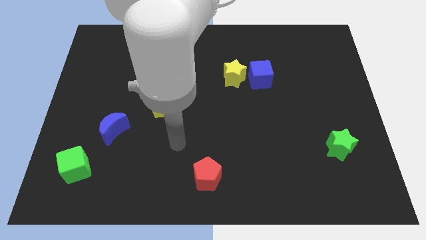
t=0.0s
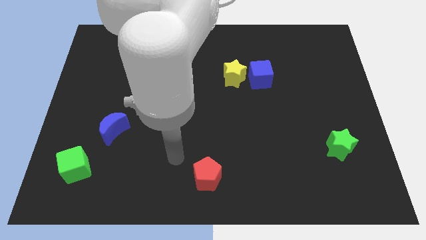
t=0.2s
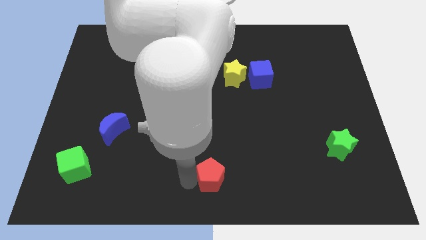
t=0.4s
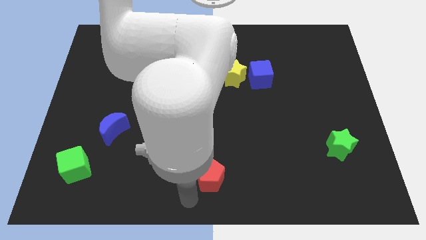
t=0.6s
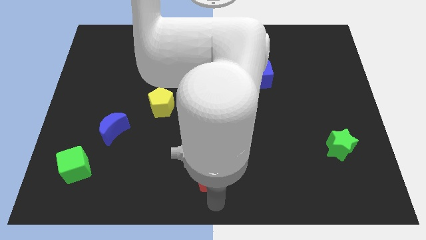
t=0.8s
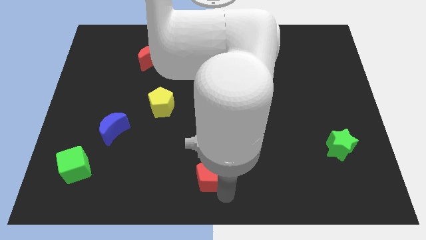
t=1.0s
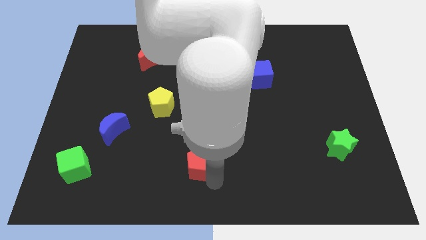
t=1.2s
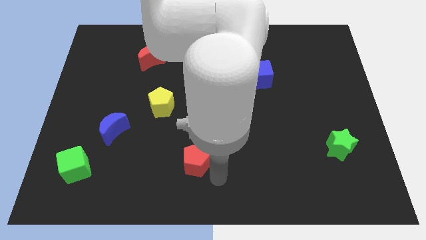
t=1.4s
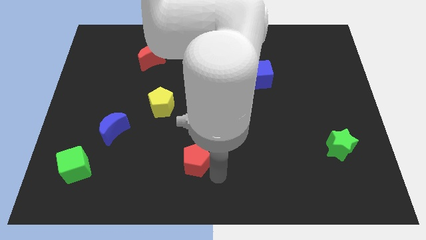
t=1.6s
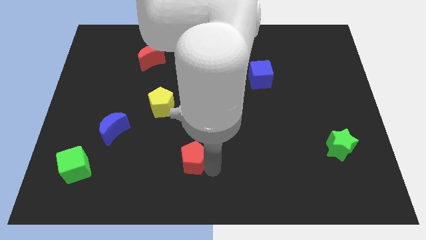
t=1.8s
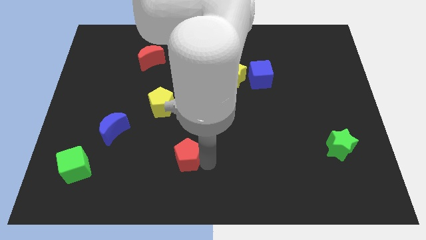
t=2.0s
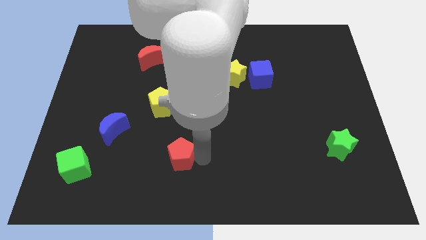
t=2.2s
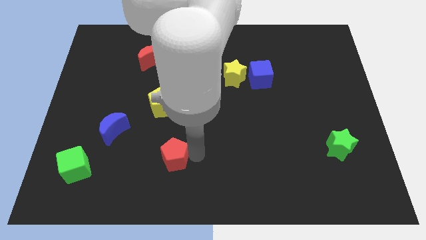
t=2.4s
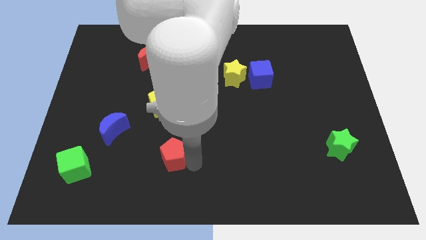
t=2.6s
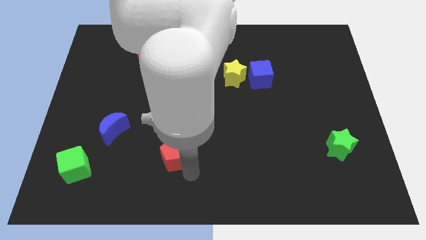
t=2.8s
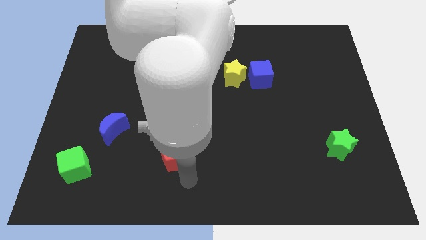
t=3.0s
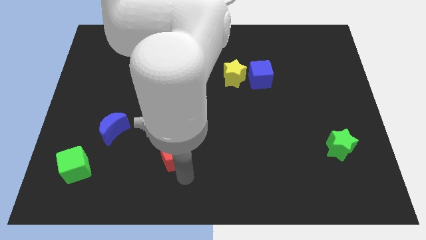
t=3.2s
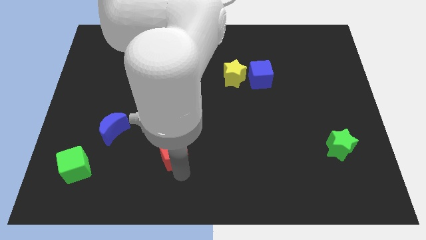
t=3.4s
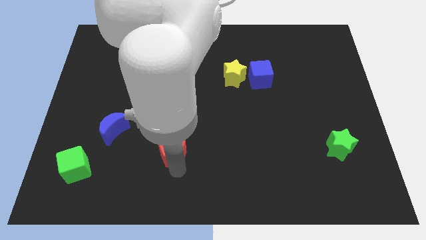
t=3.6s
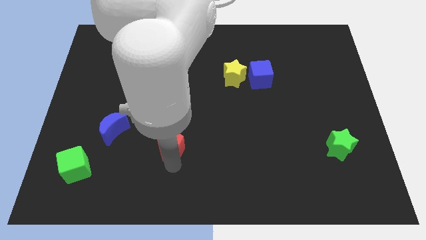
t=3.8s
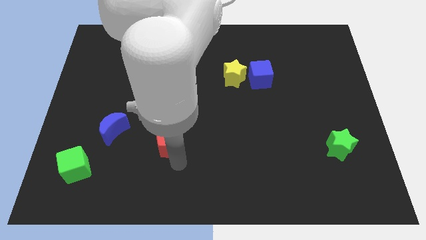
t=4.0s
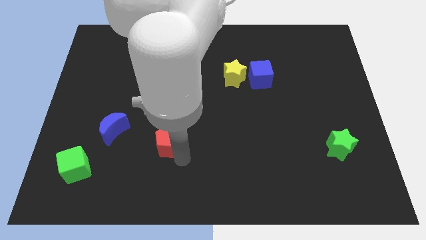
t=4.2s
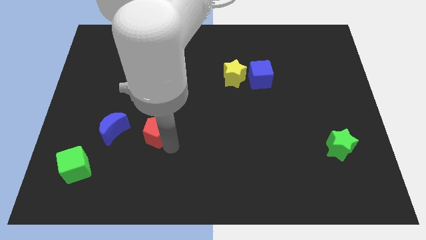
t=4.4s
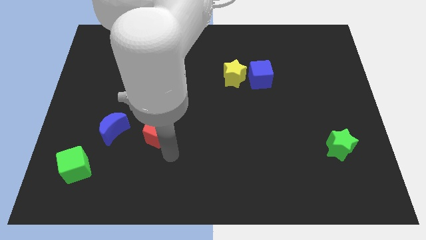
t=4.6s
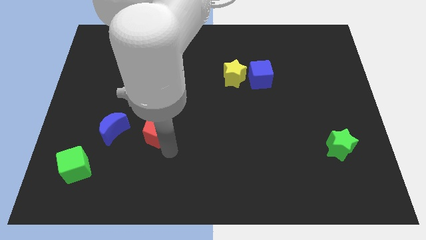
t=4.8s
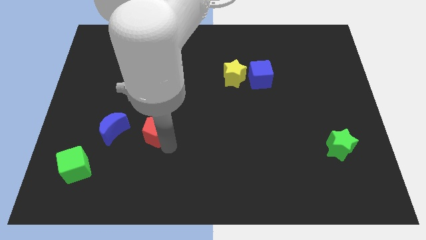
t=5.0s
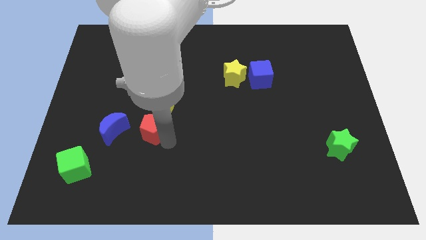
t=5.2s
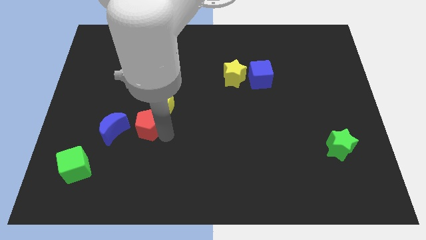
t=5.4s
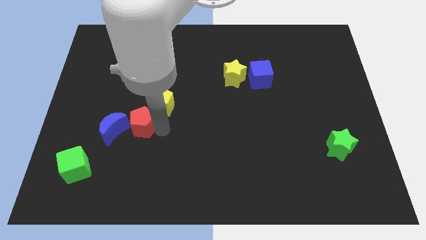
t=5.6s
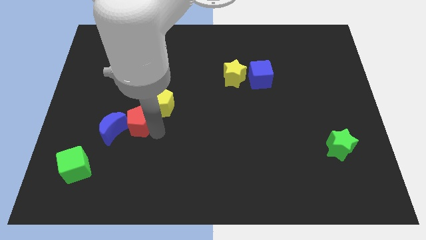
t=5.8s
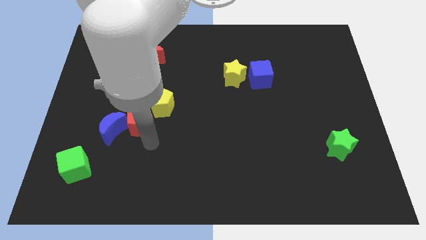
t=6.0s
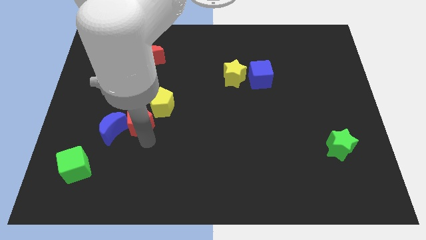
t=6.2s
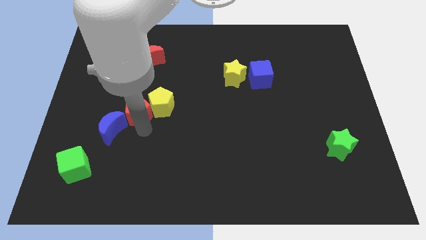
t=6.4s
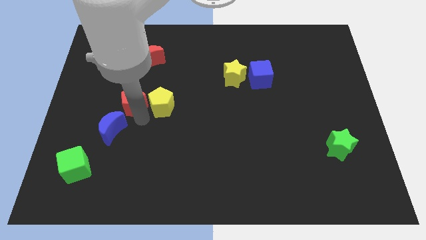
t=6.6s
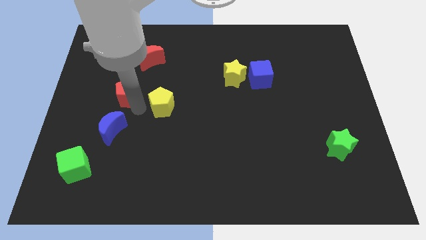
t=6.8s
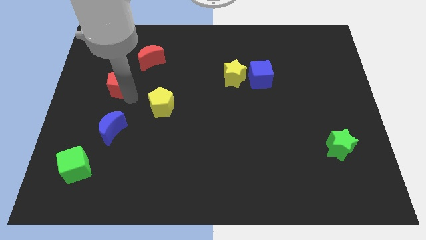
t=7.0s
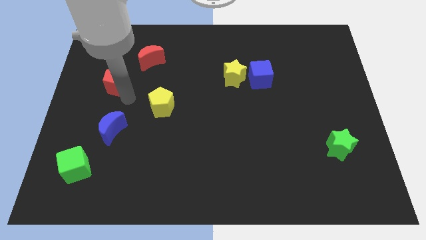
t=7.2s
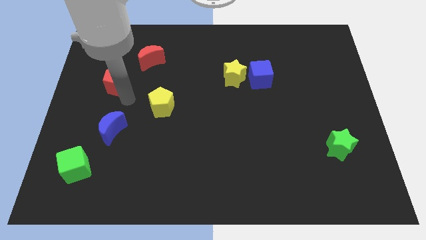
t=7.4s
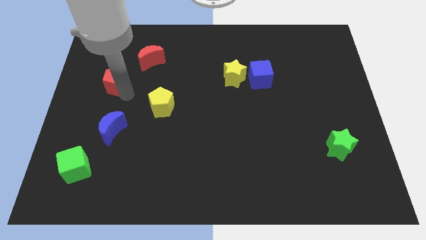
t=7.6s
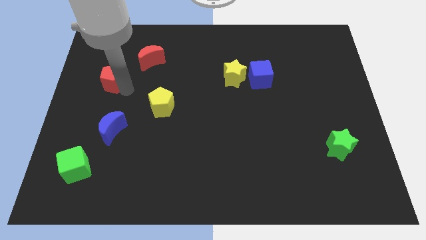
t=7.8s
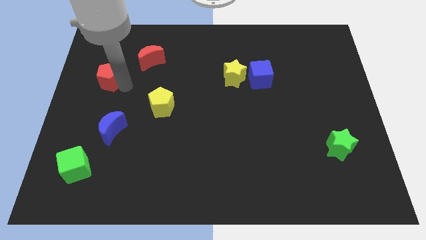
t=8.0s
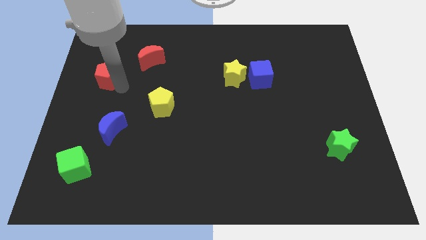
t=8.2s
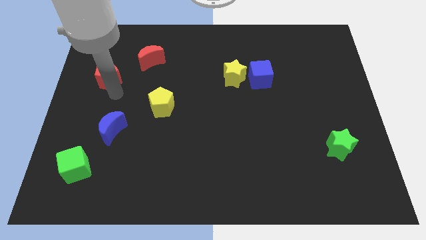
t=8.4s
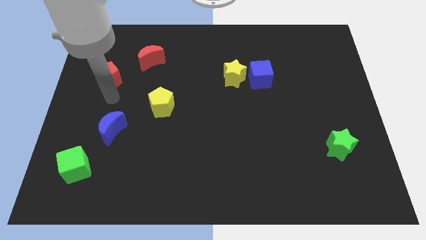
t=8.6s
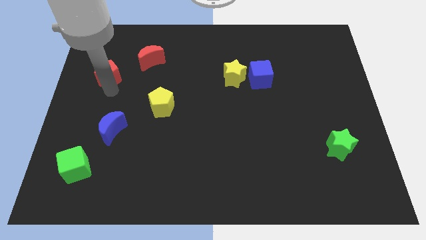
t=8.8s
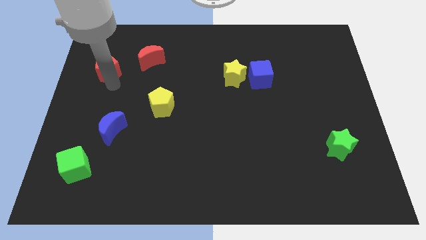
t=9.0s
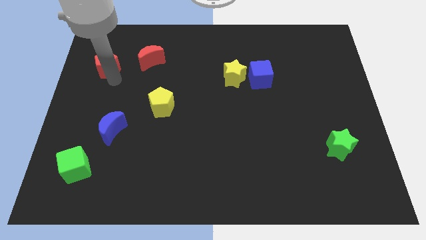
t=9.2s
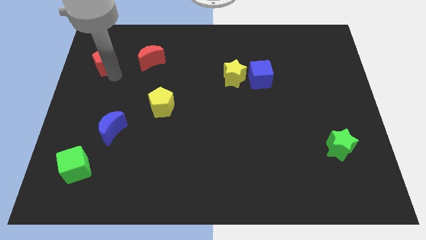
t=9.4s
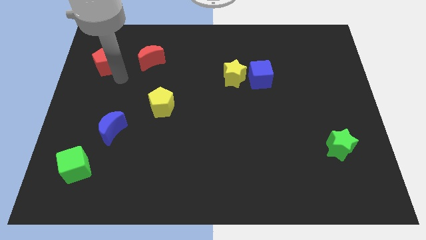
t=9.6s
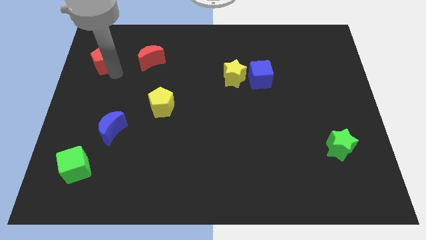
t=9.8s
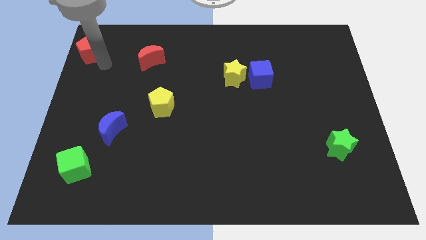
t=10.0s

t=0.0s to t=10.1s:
slide the red pentagon to the upper left corner

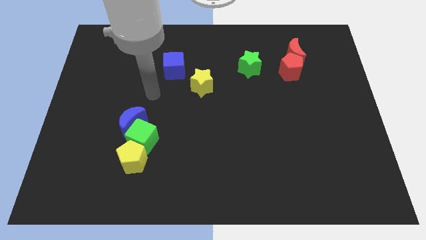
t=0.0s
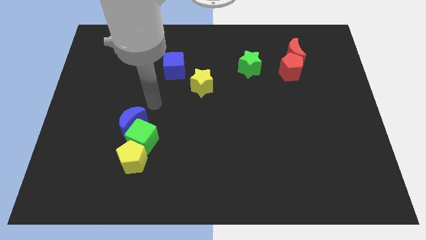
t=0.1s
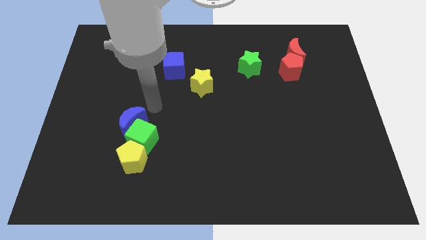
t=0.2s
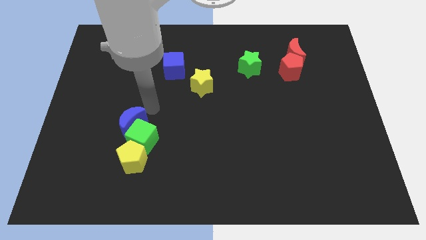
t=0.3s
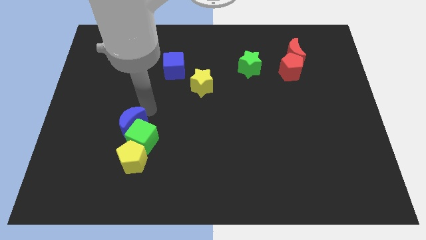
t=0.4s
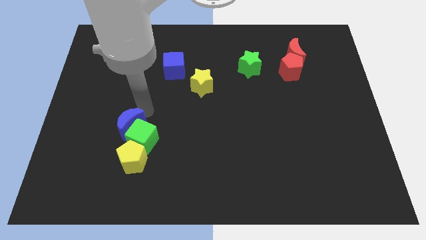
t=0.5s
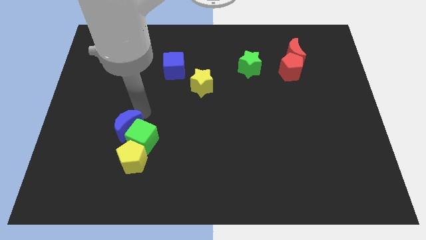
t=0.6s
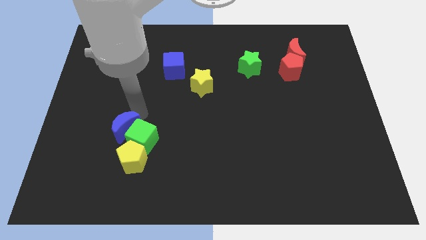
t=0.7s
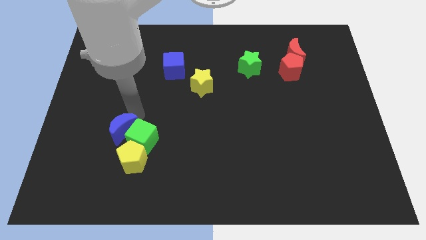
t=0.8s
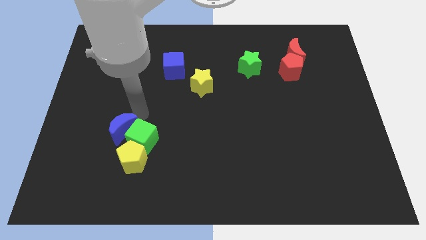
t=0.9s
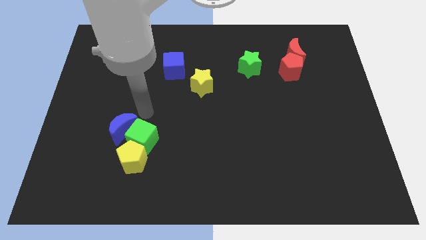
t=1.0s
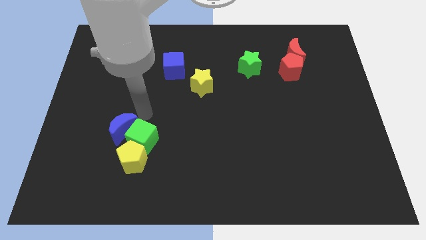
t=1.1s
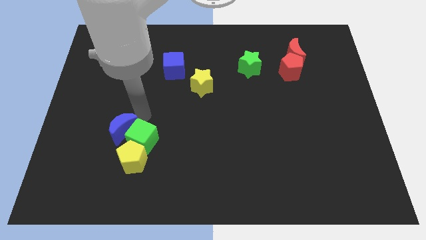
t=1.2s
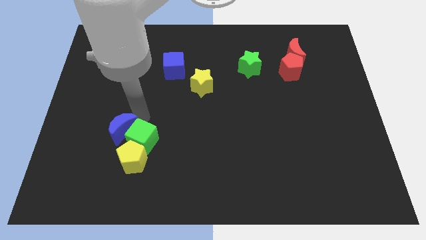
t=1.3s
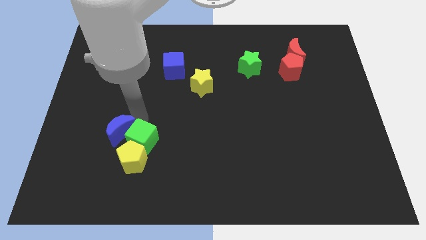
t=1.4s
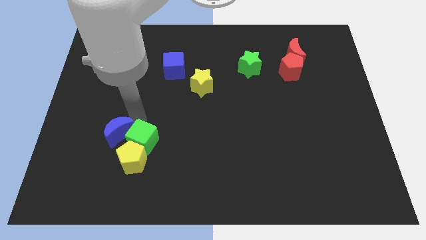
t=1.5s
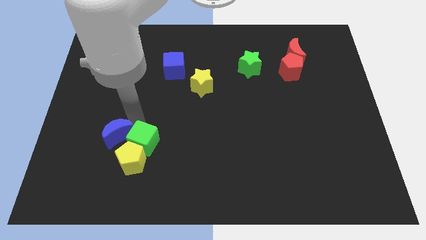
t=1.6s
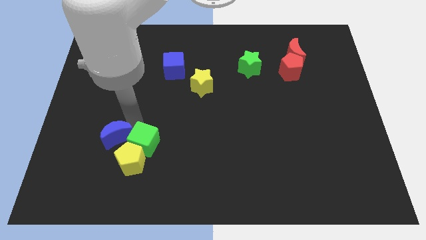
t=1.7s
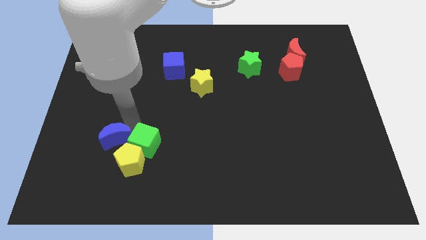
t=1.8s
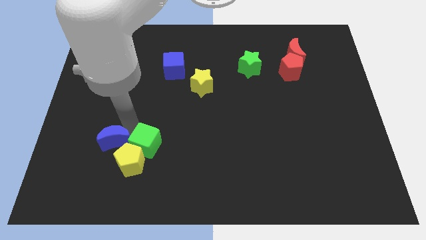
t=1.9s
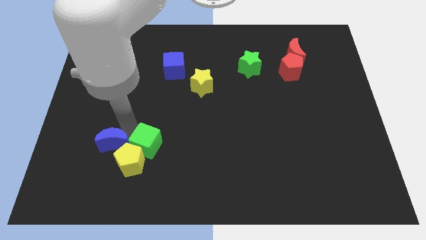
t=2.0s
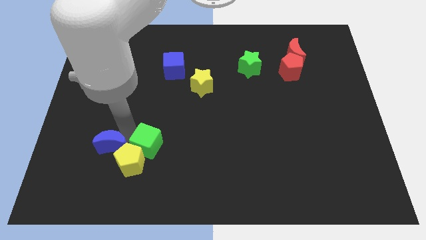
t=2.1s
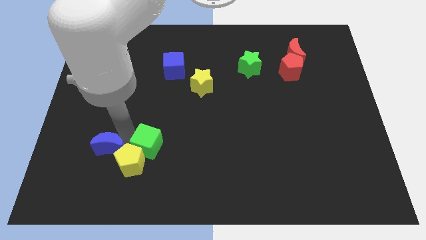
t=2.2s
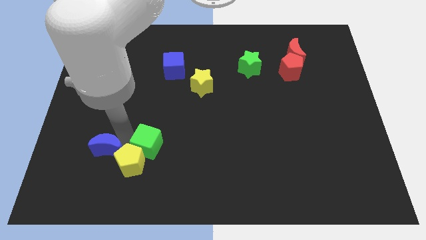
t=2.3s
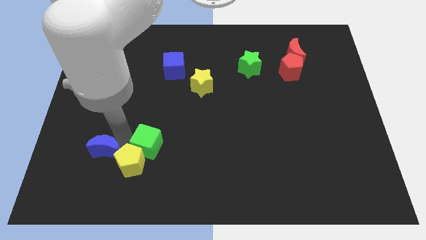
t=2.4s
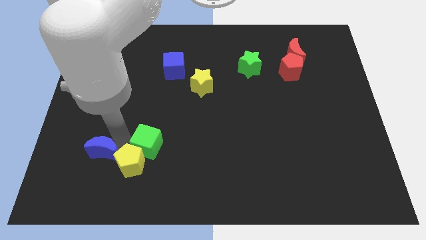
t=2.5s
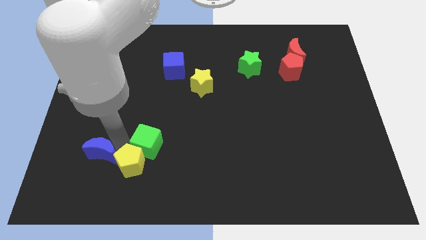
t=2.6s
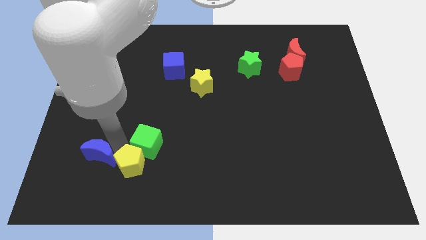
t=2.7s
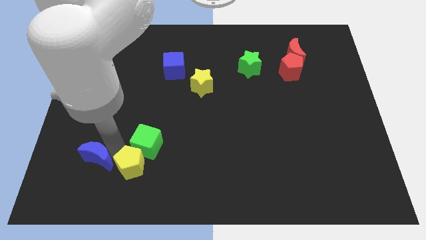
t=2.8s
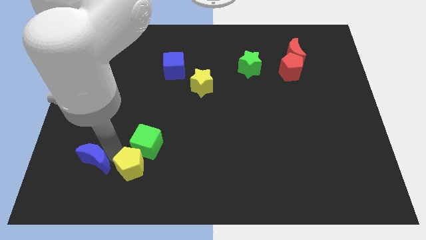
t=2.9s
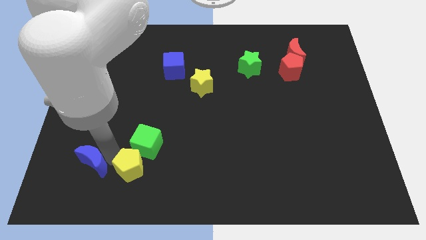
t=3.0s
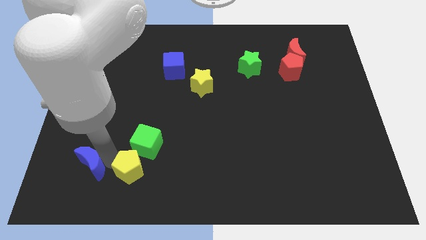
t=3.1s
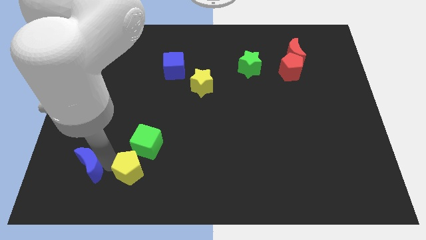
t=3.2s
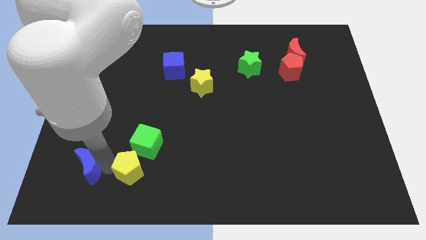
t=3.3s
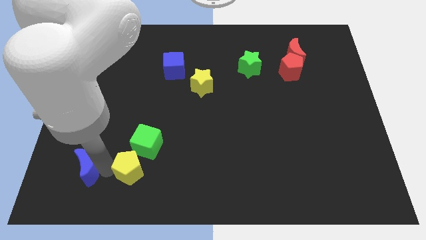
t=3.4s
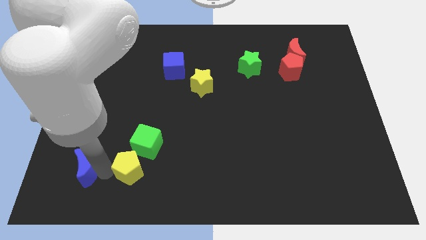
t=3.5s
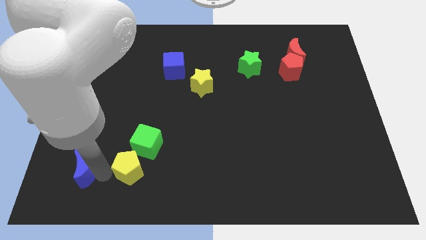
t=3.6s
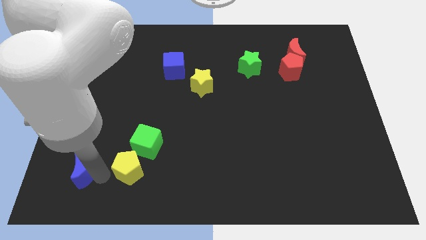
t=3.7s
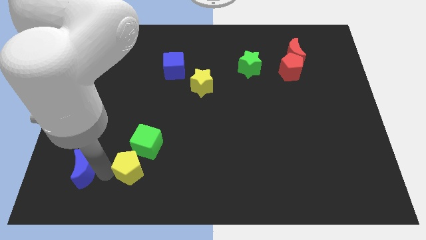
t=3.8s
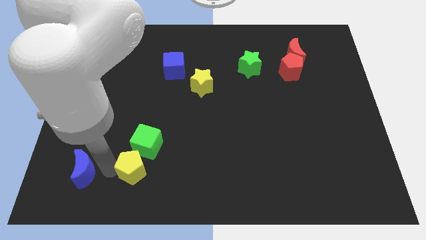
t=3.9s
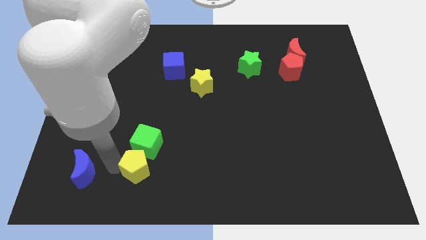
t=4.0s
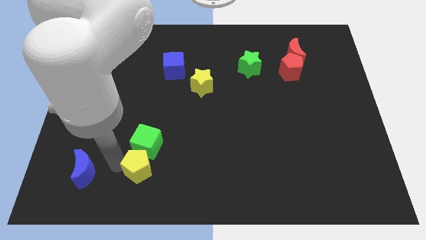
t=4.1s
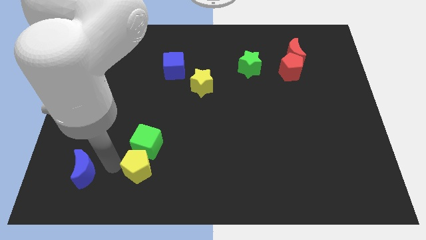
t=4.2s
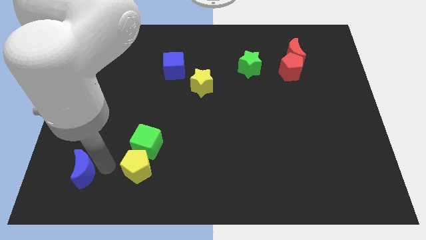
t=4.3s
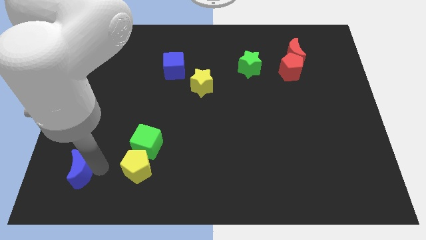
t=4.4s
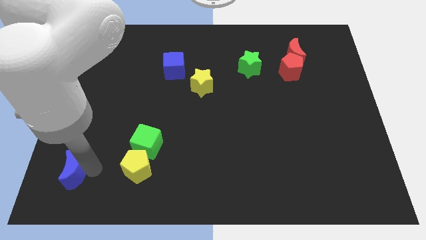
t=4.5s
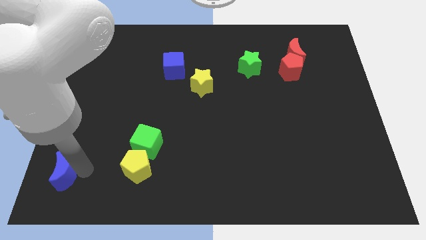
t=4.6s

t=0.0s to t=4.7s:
move the blue moon to the bottom left corner
